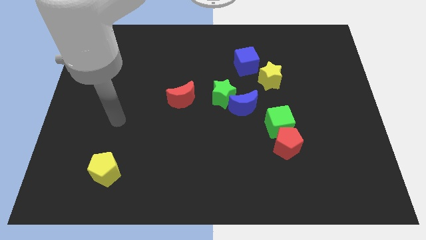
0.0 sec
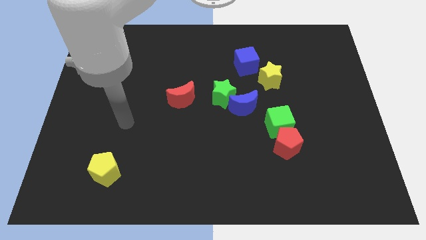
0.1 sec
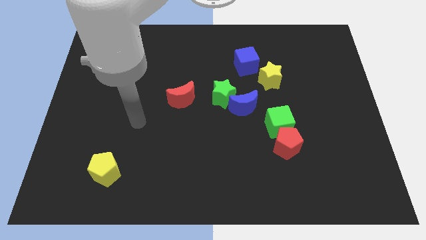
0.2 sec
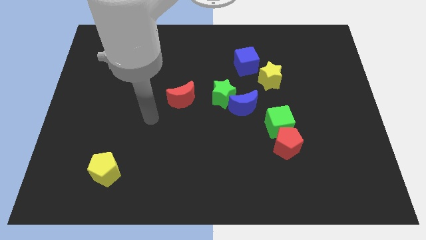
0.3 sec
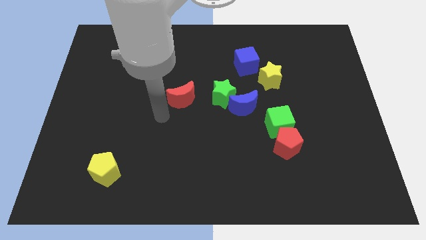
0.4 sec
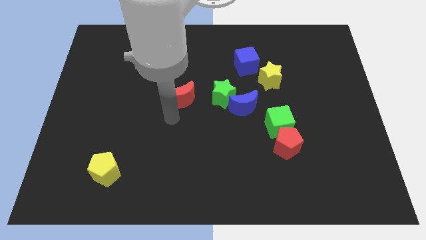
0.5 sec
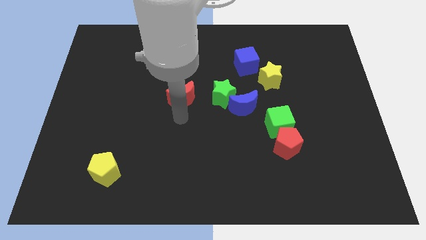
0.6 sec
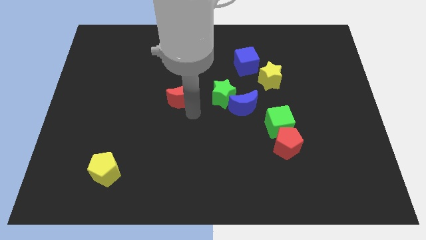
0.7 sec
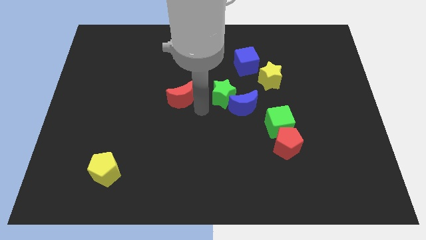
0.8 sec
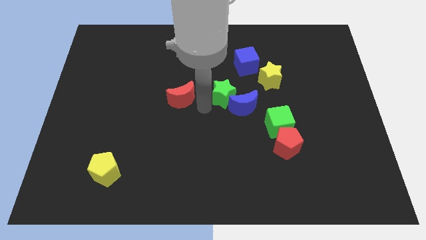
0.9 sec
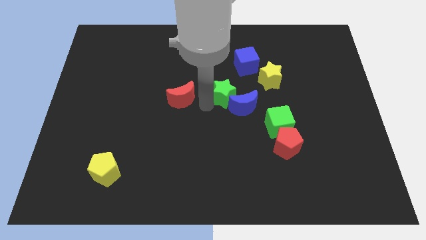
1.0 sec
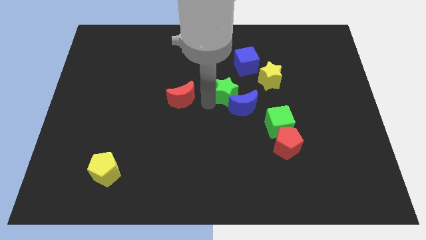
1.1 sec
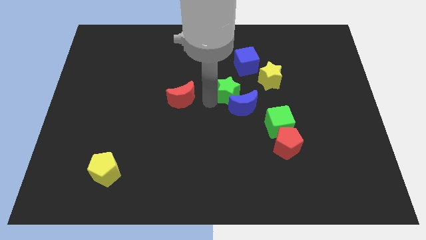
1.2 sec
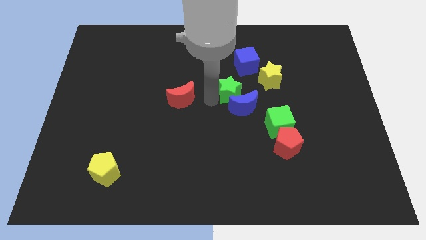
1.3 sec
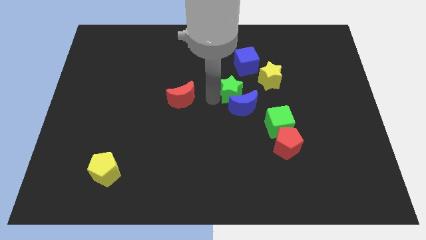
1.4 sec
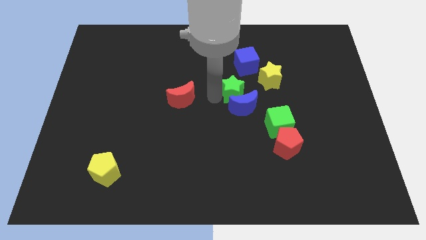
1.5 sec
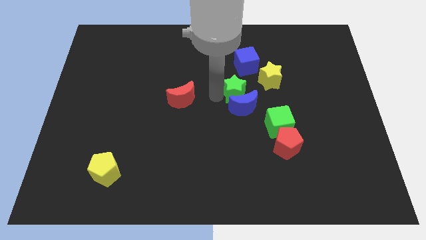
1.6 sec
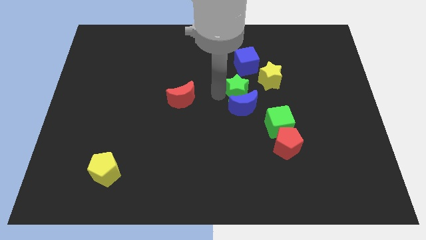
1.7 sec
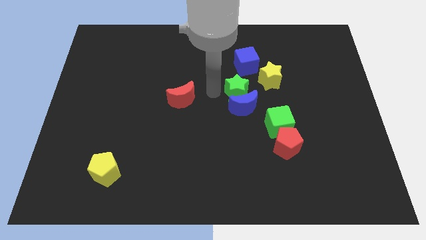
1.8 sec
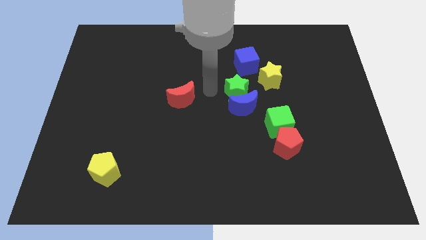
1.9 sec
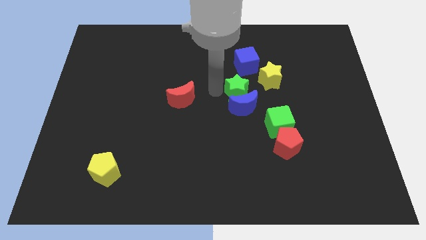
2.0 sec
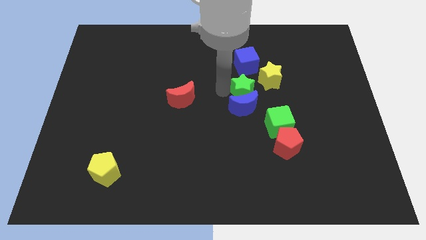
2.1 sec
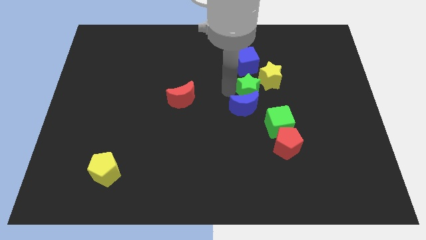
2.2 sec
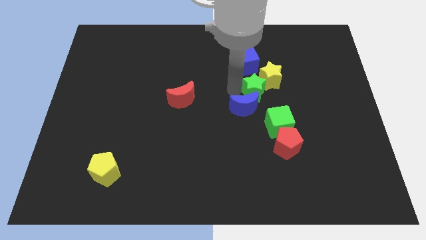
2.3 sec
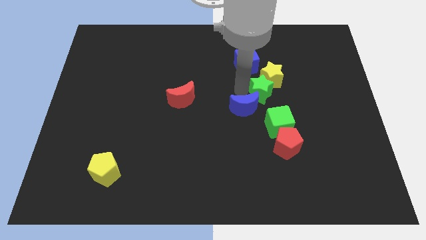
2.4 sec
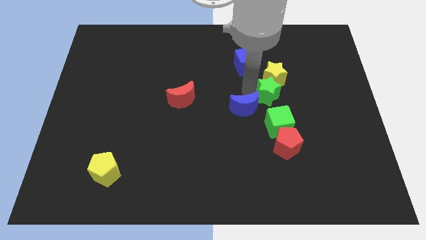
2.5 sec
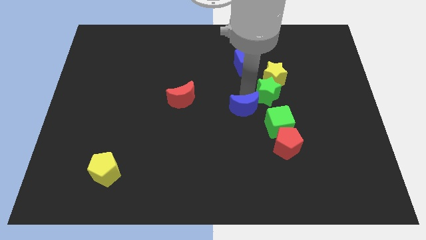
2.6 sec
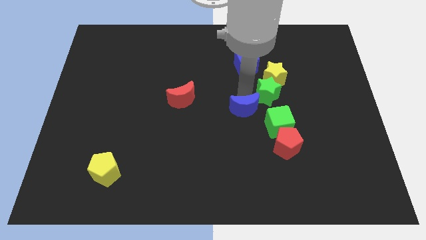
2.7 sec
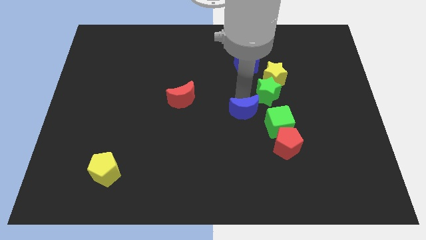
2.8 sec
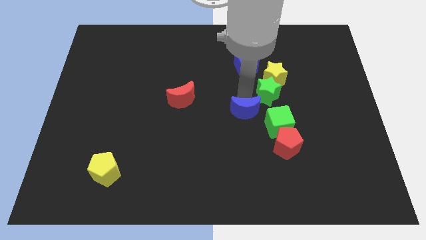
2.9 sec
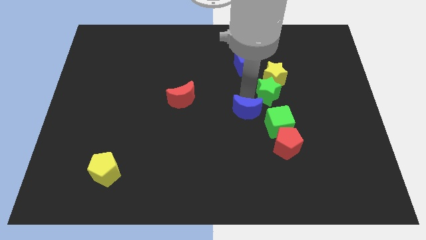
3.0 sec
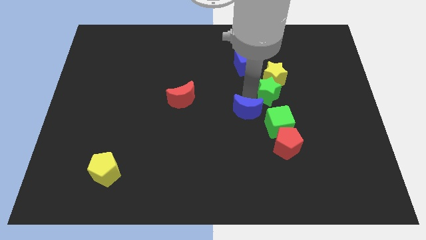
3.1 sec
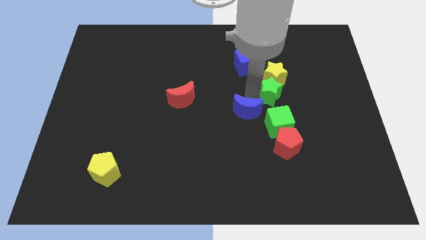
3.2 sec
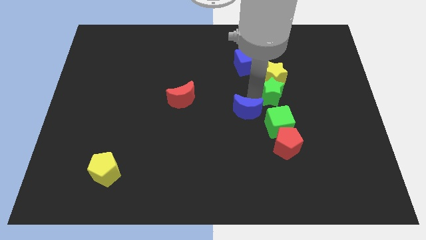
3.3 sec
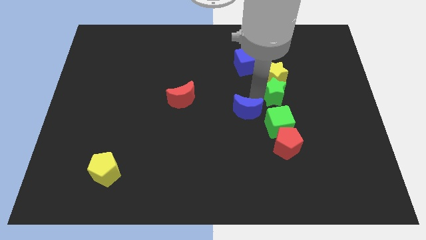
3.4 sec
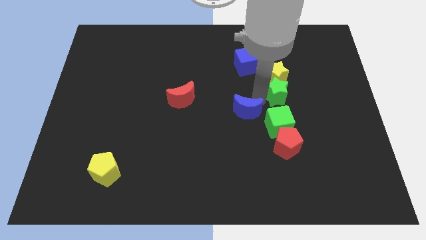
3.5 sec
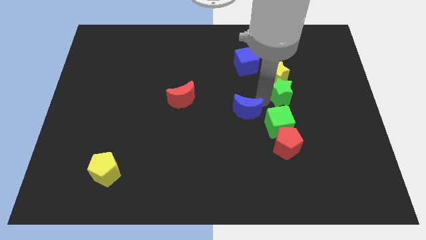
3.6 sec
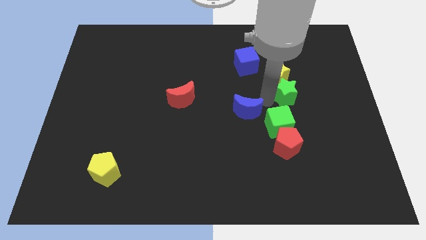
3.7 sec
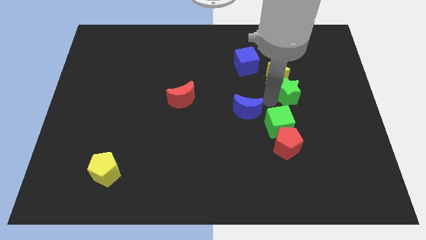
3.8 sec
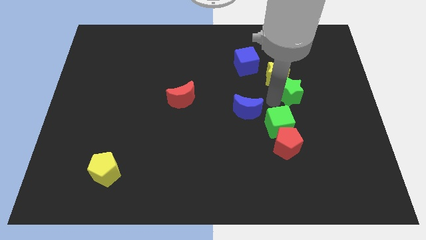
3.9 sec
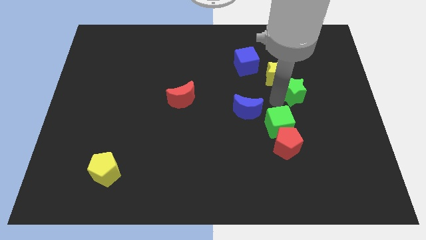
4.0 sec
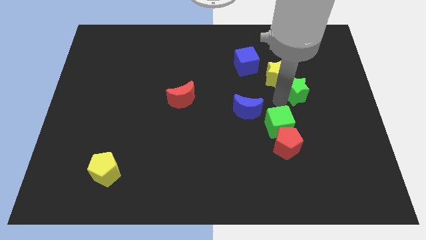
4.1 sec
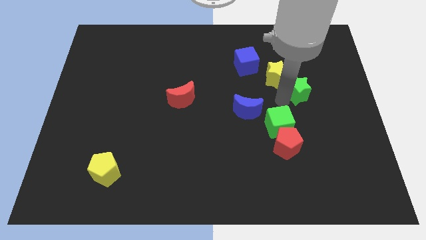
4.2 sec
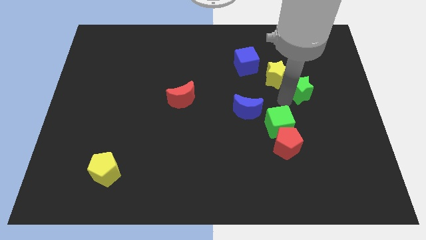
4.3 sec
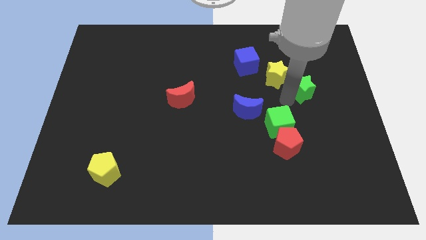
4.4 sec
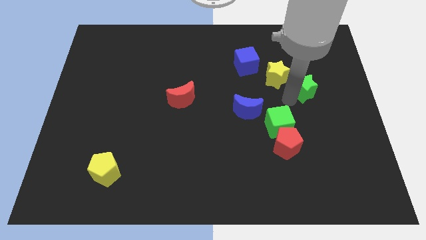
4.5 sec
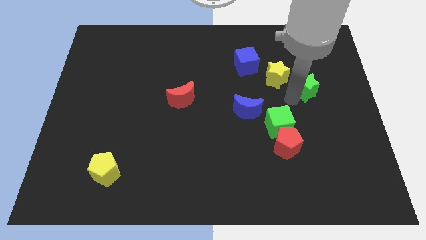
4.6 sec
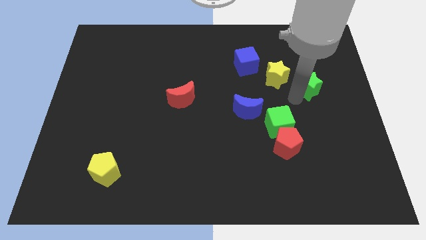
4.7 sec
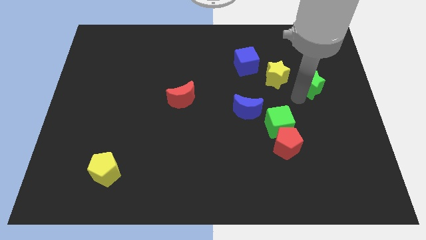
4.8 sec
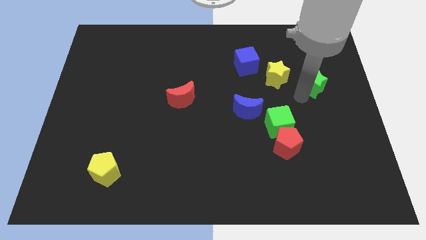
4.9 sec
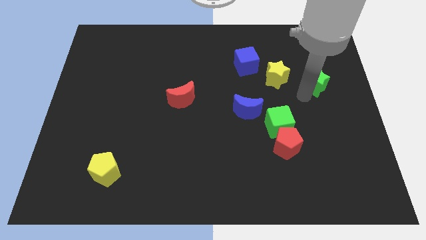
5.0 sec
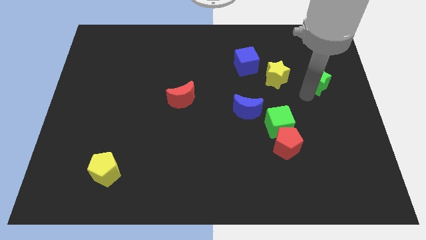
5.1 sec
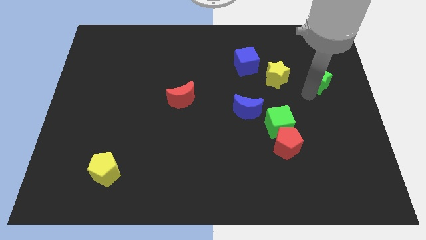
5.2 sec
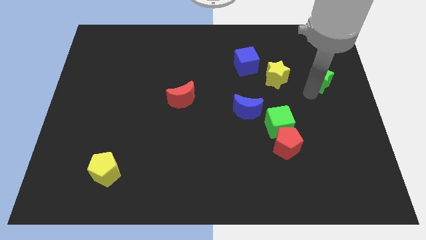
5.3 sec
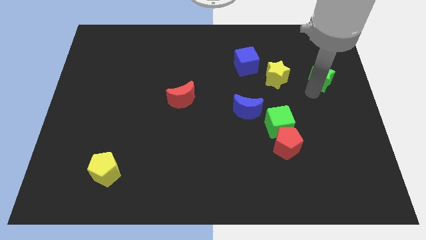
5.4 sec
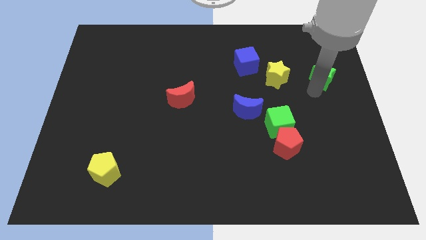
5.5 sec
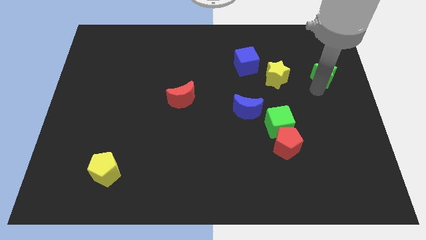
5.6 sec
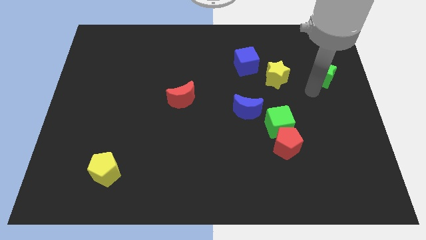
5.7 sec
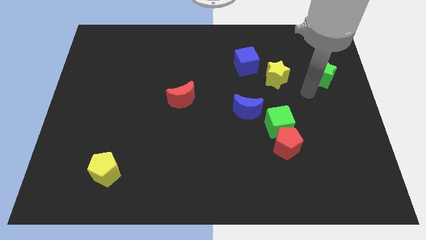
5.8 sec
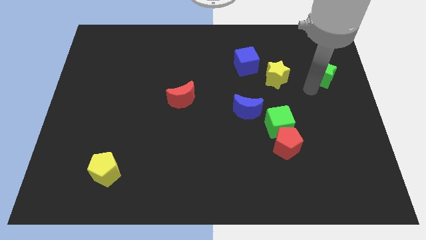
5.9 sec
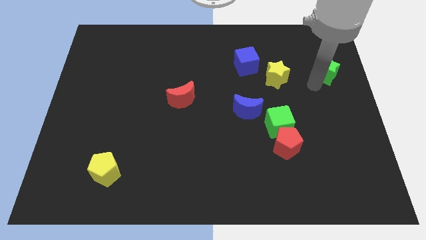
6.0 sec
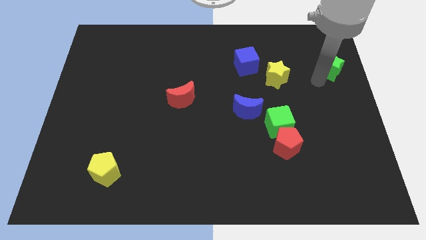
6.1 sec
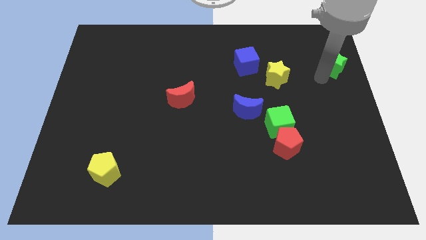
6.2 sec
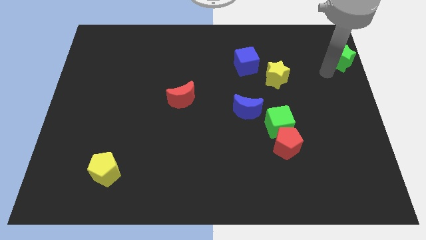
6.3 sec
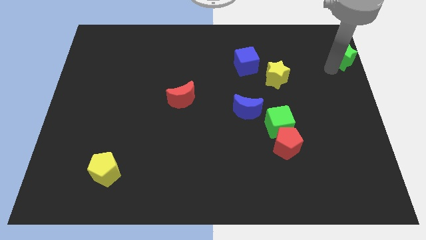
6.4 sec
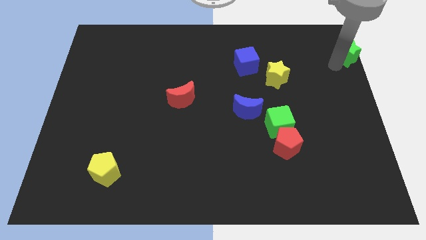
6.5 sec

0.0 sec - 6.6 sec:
move the green star to the top right of the board
